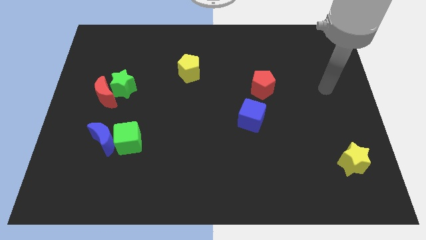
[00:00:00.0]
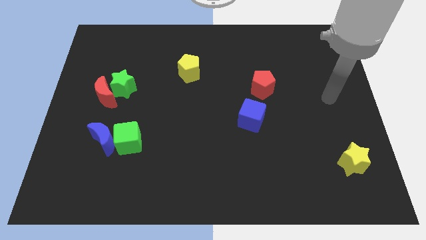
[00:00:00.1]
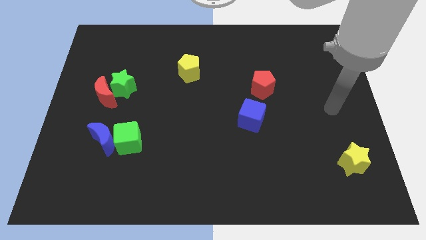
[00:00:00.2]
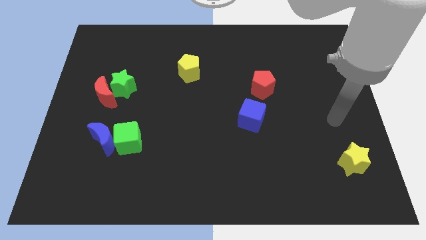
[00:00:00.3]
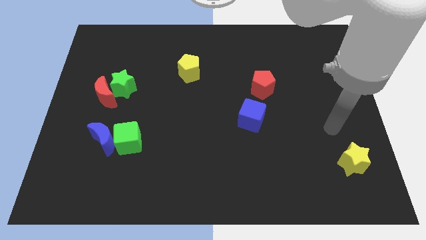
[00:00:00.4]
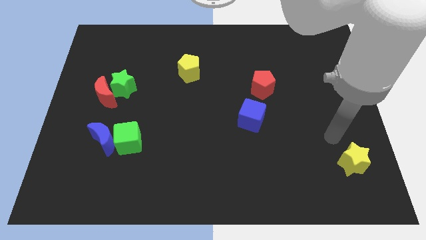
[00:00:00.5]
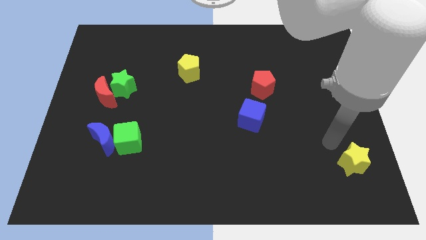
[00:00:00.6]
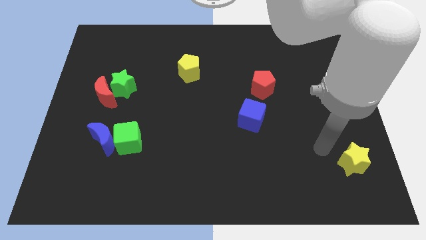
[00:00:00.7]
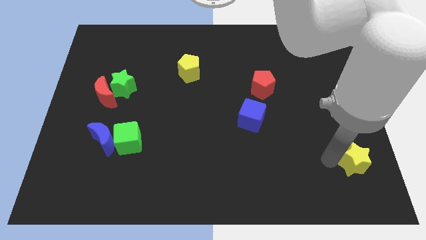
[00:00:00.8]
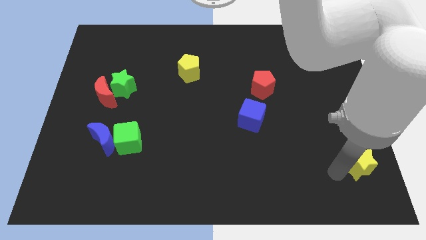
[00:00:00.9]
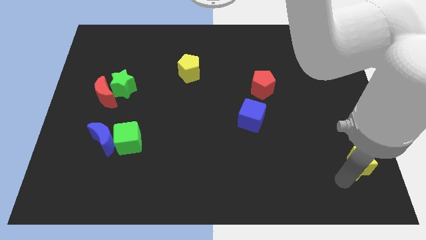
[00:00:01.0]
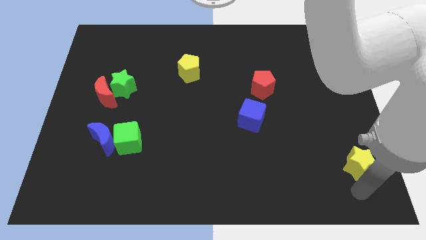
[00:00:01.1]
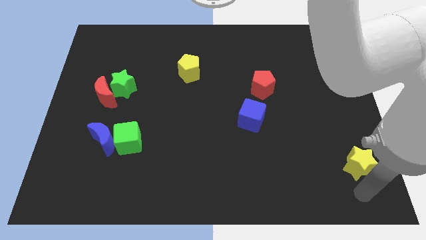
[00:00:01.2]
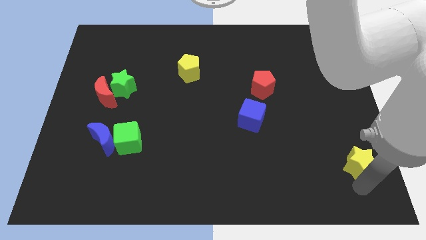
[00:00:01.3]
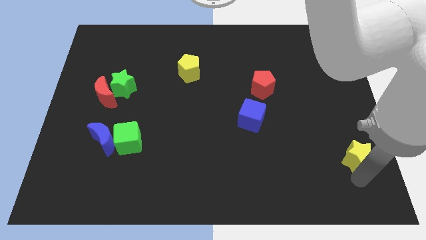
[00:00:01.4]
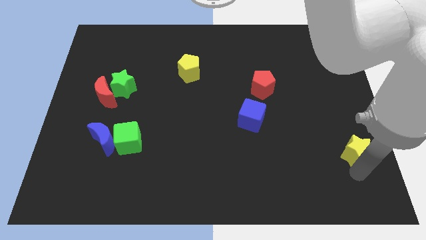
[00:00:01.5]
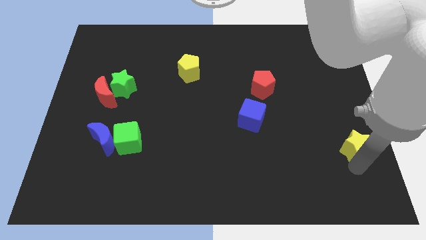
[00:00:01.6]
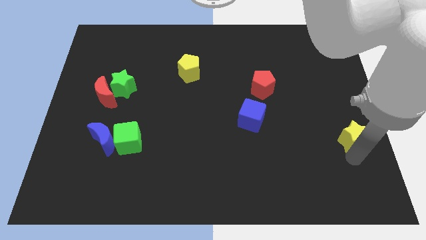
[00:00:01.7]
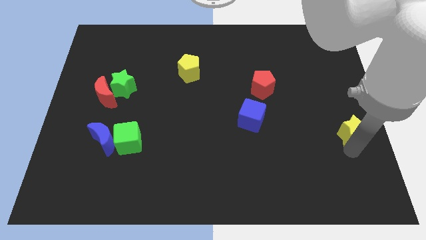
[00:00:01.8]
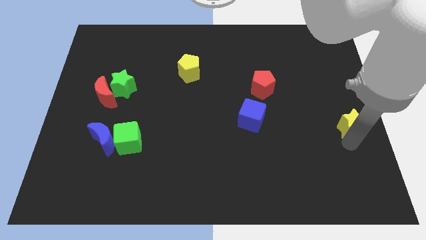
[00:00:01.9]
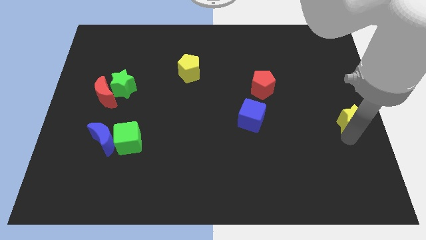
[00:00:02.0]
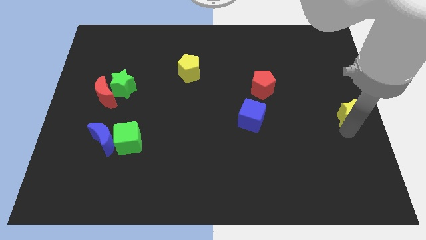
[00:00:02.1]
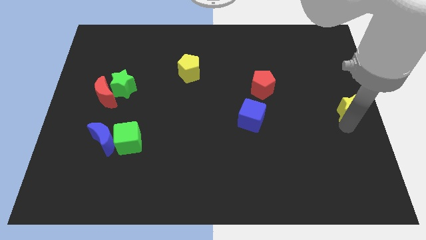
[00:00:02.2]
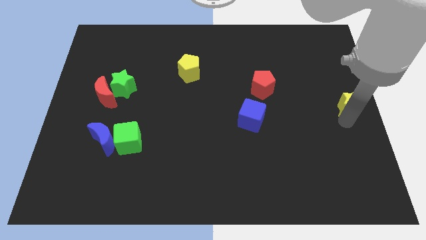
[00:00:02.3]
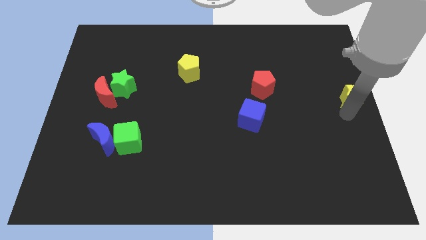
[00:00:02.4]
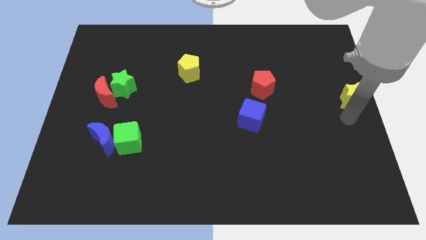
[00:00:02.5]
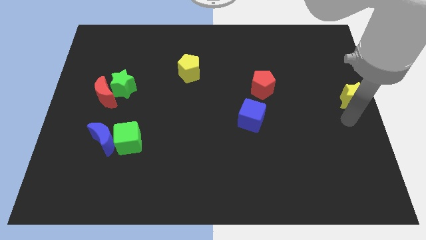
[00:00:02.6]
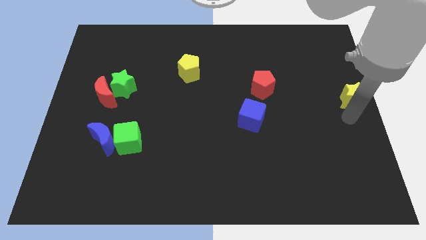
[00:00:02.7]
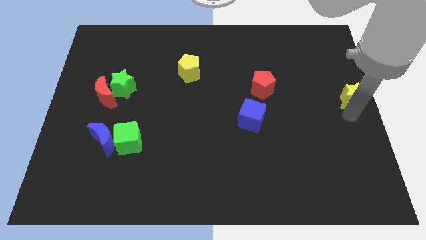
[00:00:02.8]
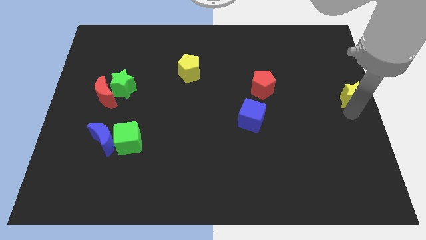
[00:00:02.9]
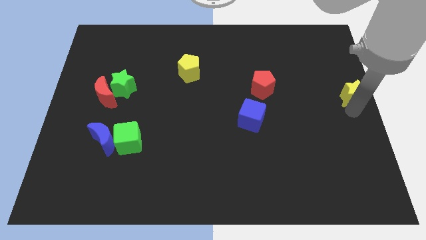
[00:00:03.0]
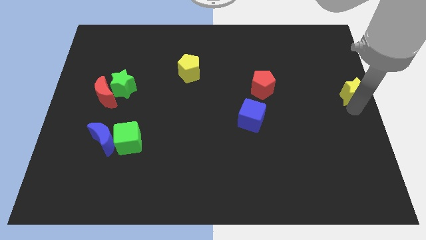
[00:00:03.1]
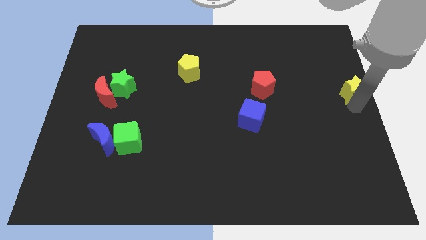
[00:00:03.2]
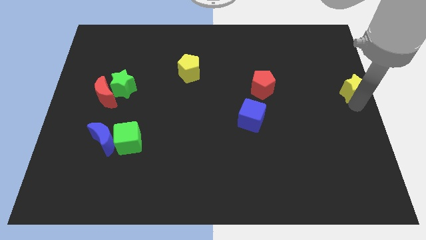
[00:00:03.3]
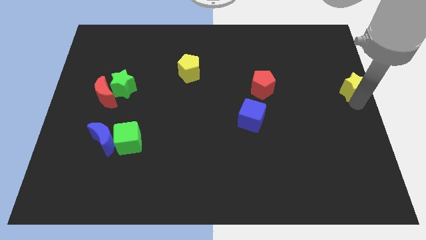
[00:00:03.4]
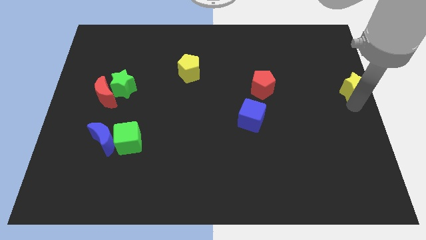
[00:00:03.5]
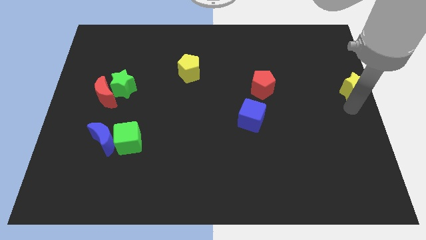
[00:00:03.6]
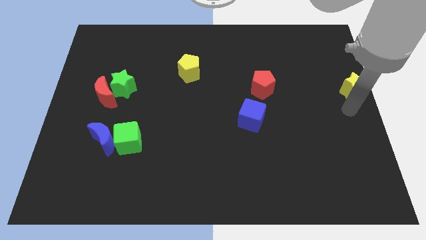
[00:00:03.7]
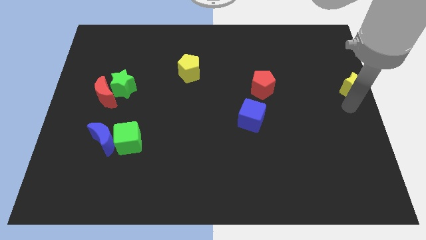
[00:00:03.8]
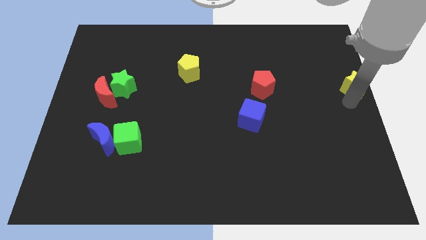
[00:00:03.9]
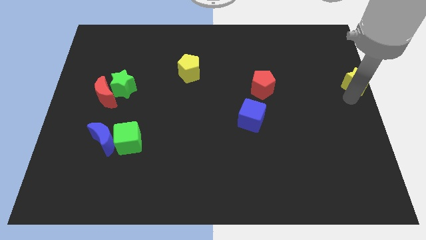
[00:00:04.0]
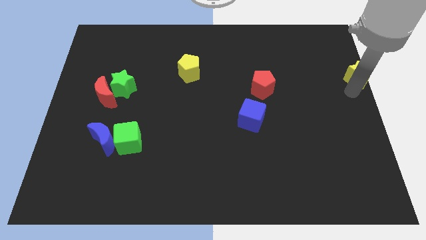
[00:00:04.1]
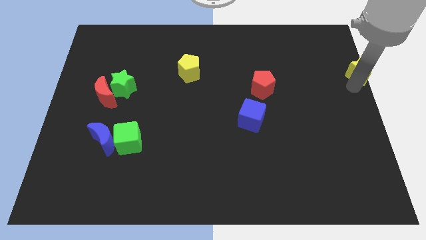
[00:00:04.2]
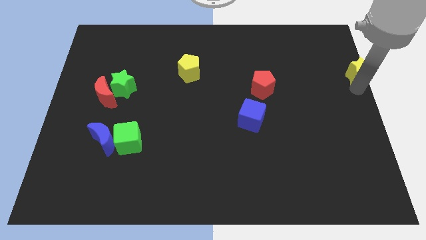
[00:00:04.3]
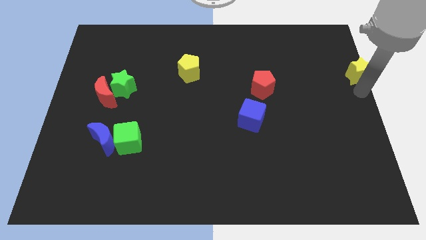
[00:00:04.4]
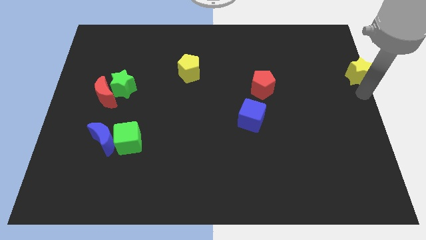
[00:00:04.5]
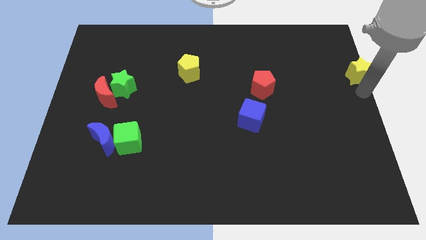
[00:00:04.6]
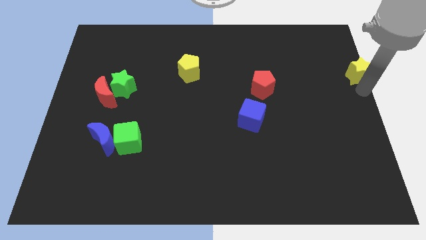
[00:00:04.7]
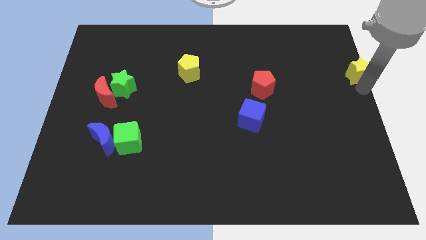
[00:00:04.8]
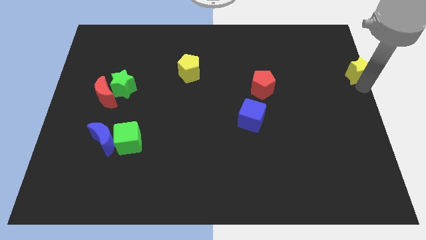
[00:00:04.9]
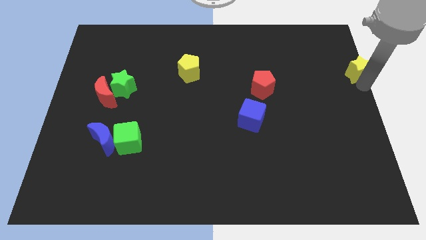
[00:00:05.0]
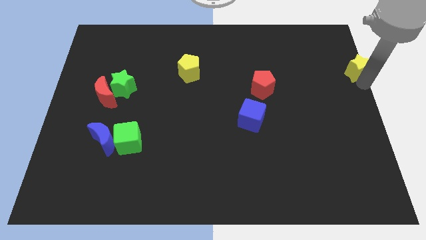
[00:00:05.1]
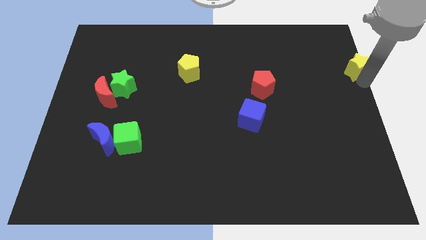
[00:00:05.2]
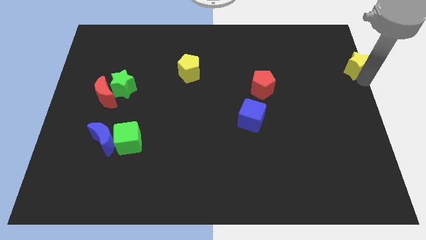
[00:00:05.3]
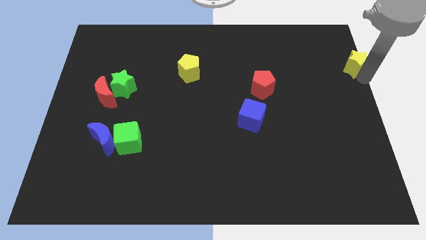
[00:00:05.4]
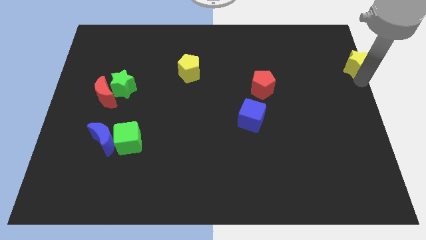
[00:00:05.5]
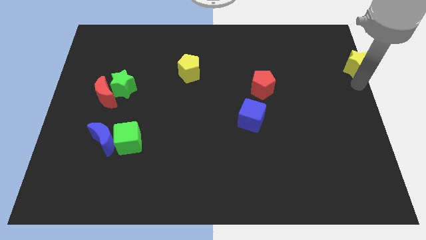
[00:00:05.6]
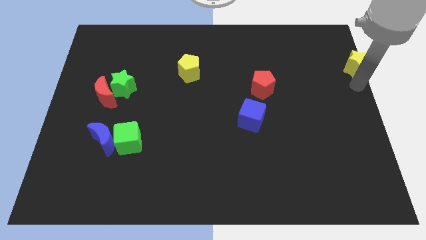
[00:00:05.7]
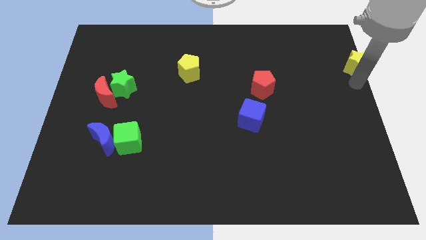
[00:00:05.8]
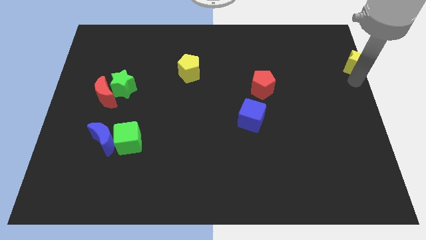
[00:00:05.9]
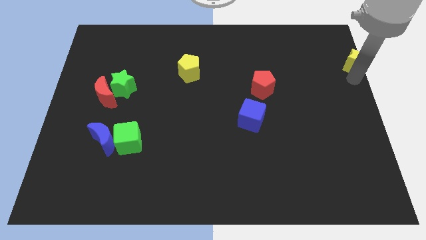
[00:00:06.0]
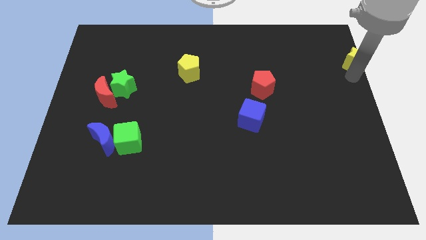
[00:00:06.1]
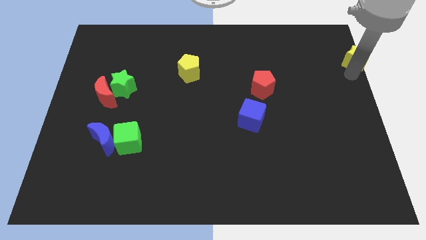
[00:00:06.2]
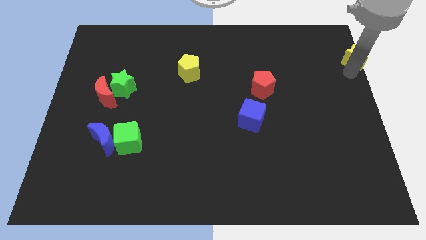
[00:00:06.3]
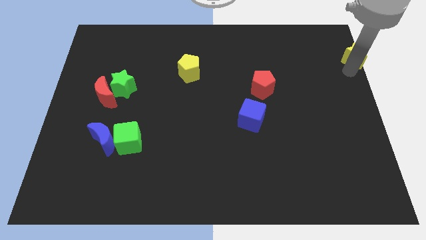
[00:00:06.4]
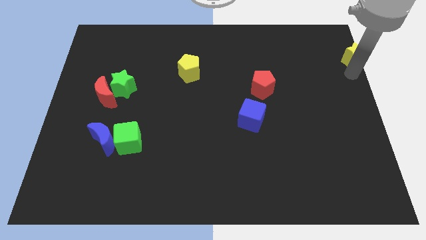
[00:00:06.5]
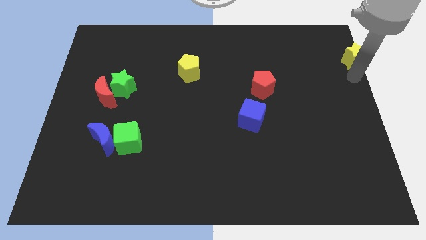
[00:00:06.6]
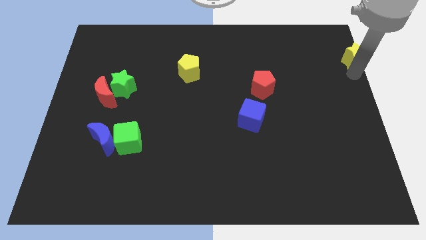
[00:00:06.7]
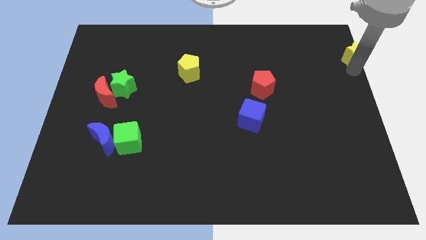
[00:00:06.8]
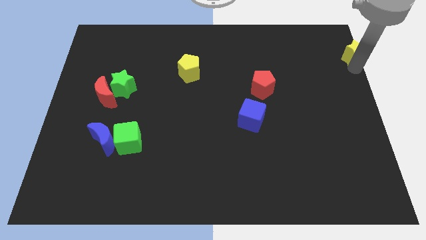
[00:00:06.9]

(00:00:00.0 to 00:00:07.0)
put the yellow star to the top right
